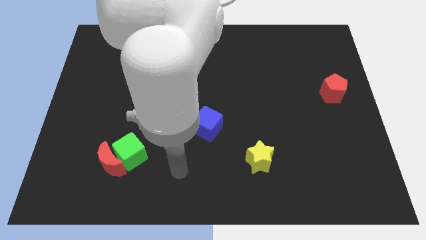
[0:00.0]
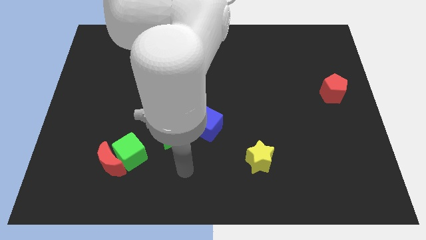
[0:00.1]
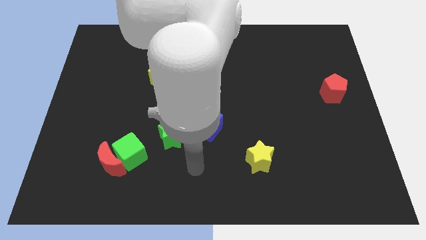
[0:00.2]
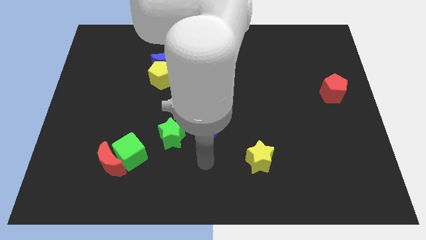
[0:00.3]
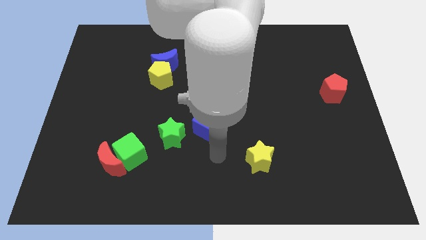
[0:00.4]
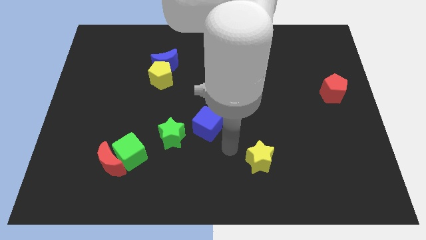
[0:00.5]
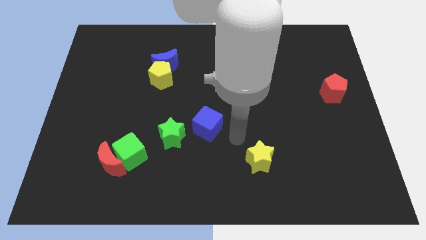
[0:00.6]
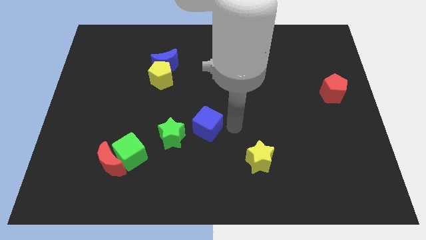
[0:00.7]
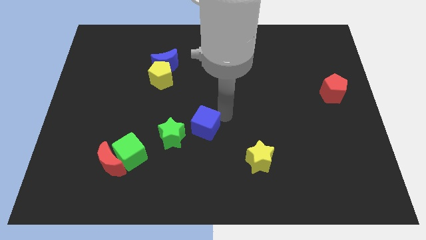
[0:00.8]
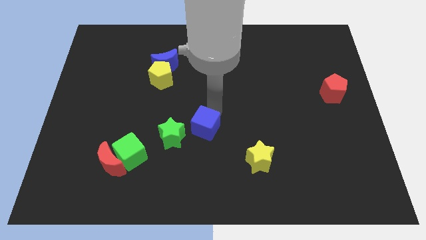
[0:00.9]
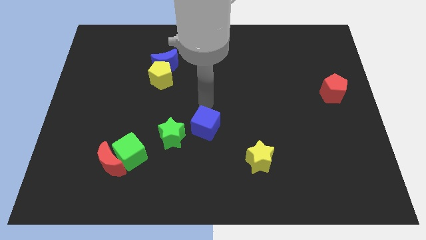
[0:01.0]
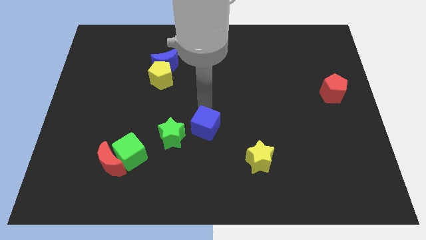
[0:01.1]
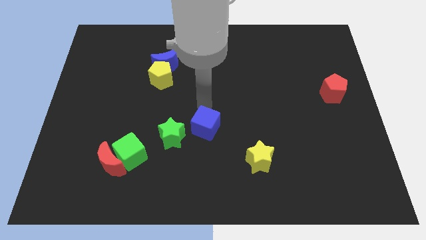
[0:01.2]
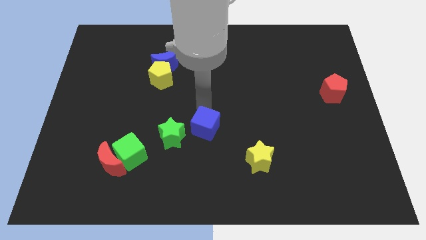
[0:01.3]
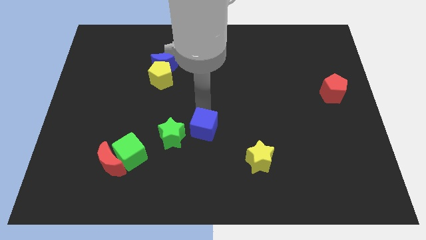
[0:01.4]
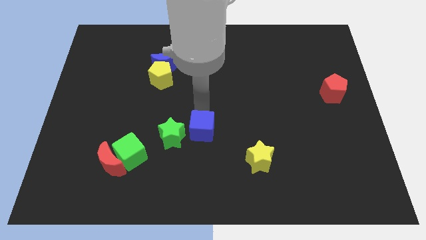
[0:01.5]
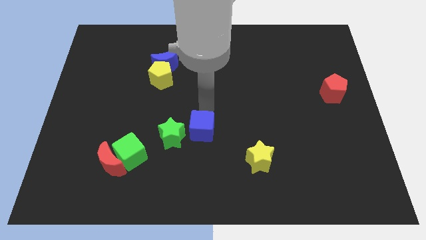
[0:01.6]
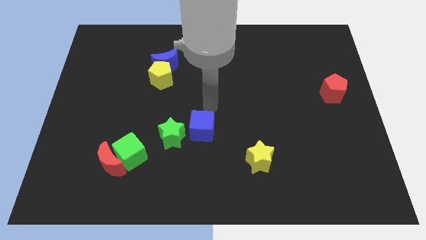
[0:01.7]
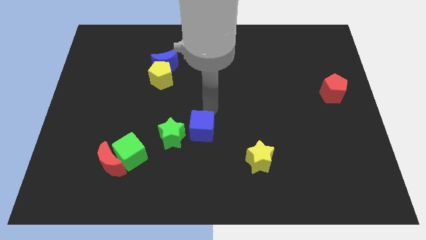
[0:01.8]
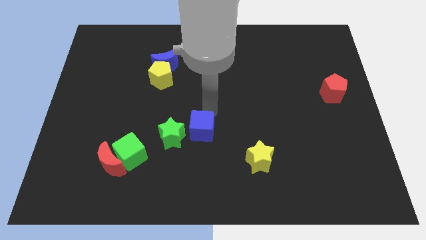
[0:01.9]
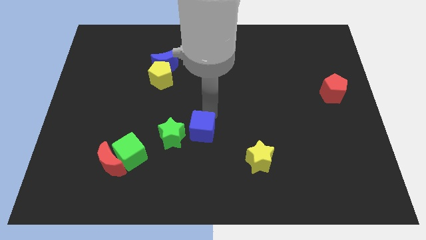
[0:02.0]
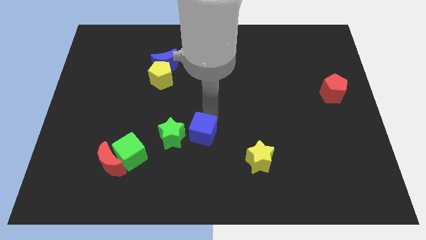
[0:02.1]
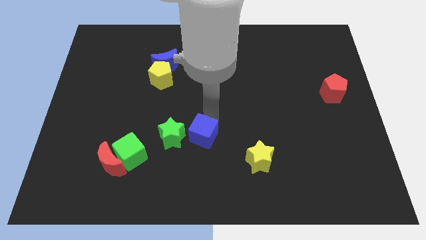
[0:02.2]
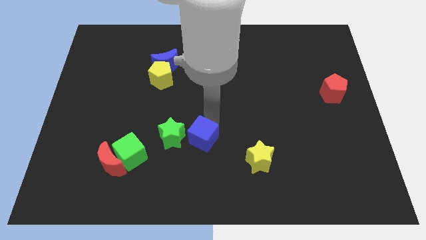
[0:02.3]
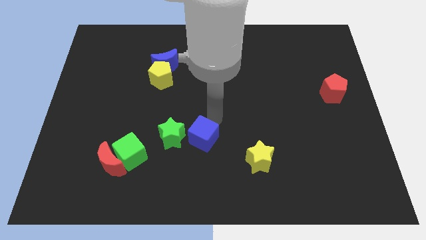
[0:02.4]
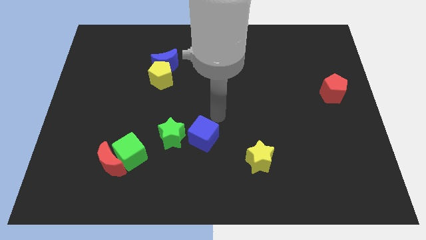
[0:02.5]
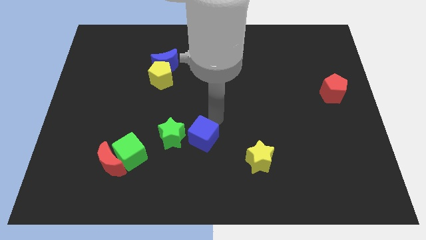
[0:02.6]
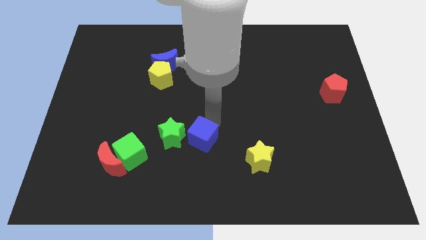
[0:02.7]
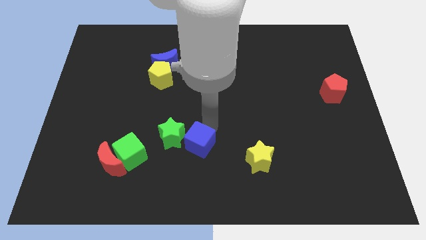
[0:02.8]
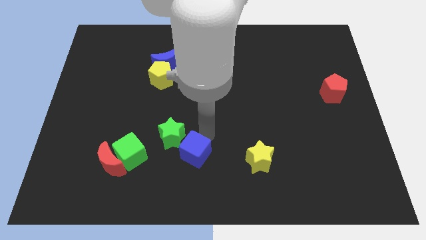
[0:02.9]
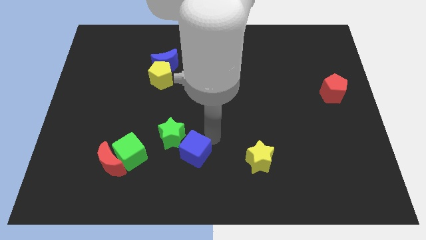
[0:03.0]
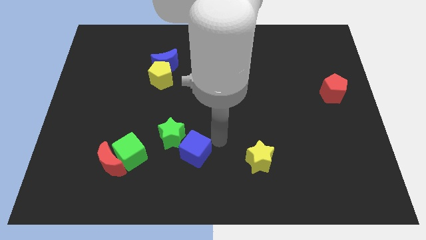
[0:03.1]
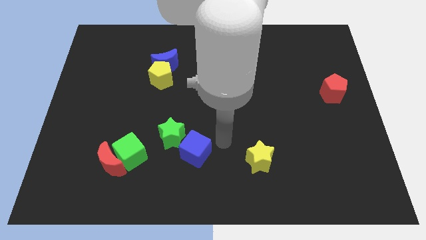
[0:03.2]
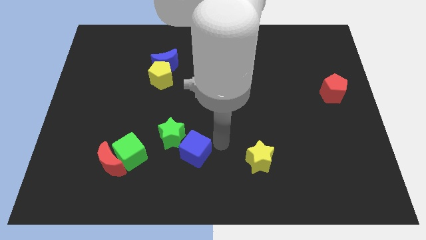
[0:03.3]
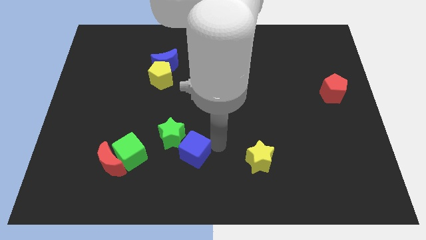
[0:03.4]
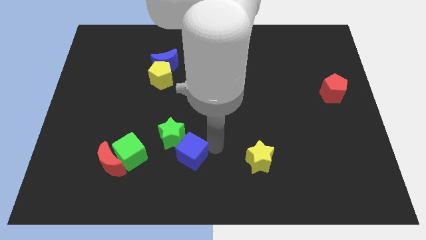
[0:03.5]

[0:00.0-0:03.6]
slightly slide the blue cube diagonally downwards and to the left

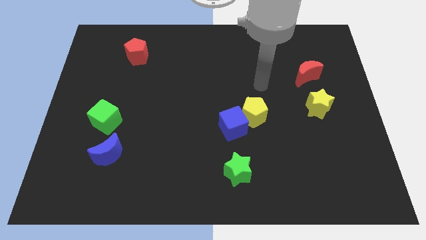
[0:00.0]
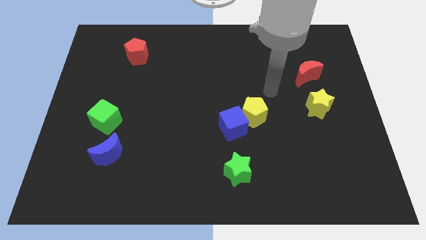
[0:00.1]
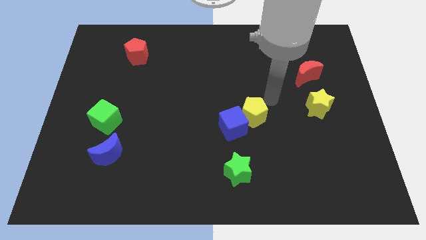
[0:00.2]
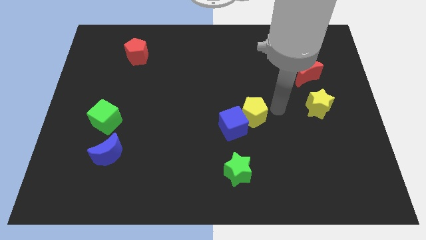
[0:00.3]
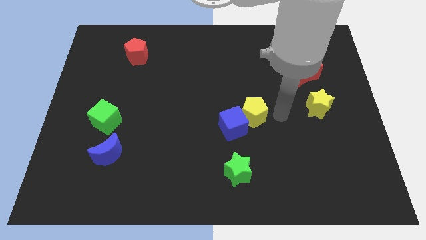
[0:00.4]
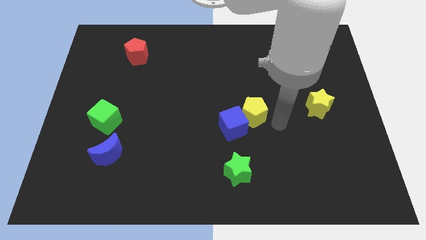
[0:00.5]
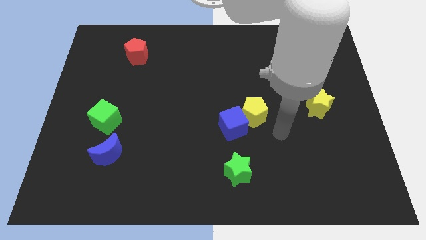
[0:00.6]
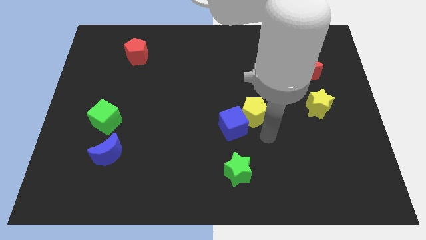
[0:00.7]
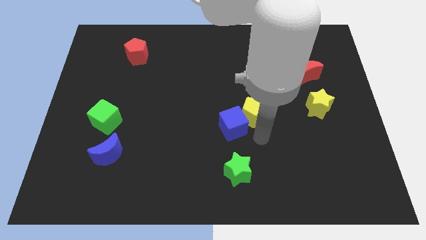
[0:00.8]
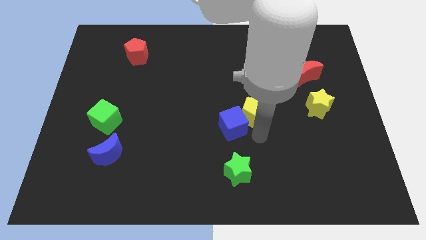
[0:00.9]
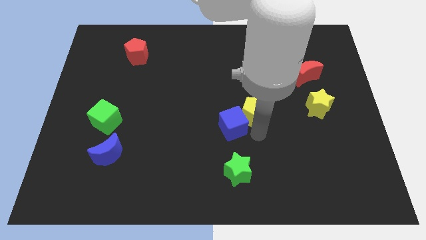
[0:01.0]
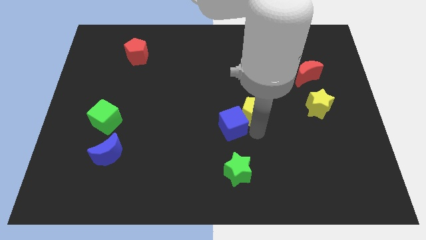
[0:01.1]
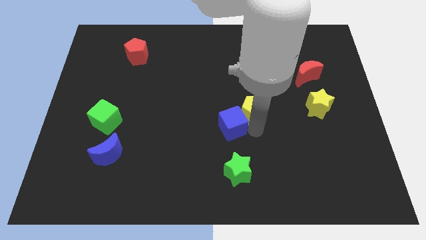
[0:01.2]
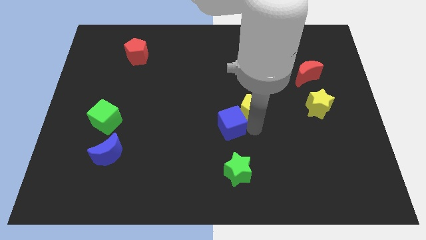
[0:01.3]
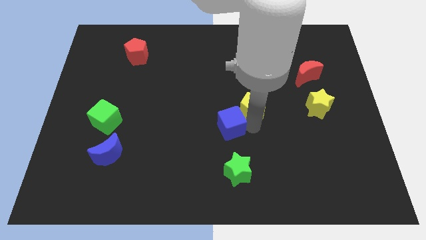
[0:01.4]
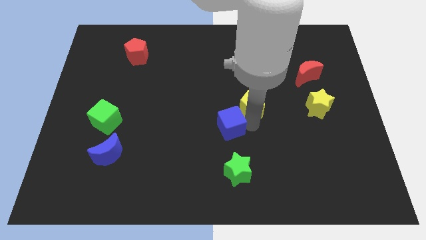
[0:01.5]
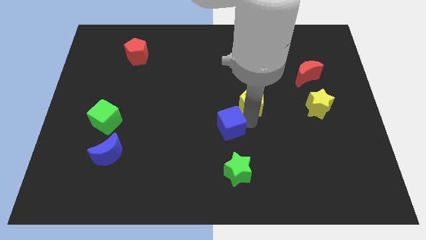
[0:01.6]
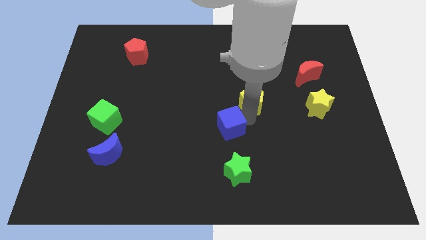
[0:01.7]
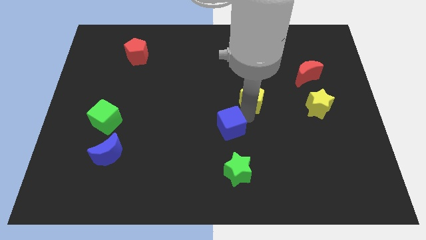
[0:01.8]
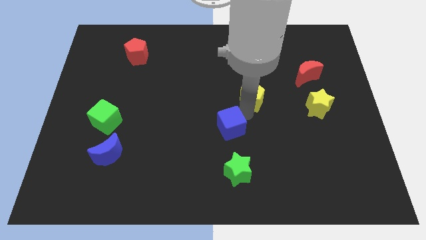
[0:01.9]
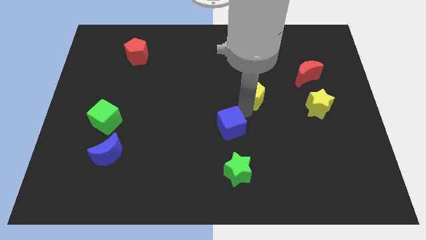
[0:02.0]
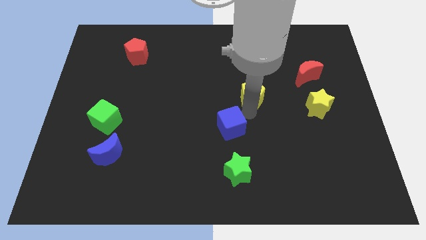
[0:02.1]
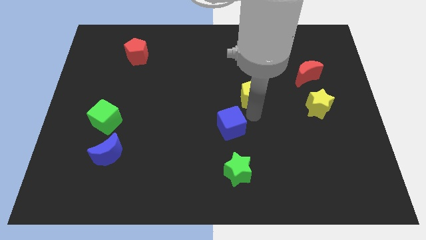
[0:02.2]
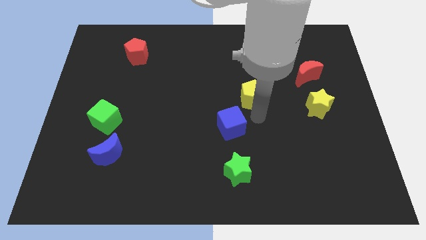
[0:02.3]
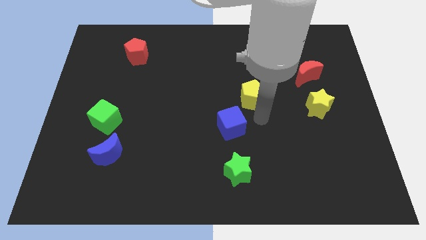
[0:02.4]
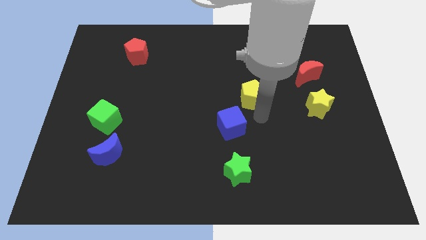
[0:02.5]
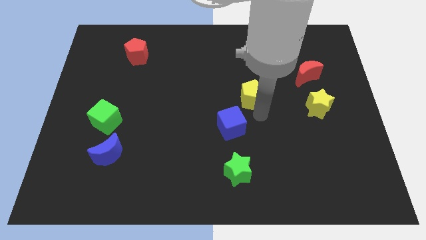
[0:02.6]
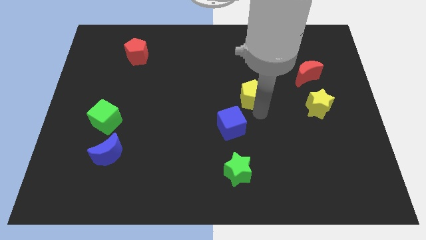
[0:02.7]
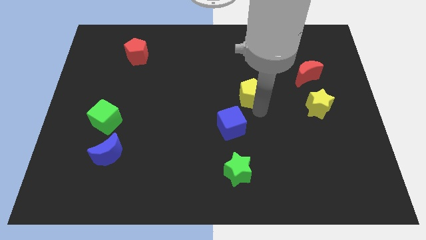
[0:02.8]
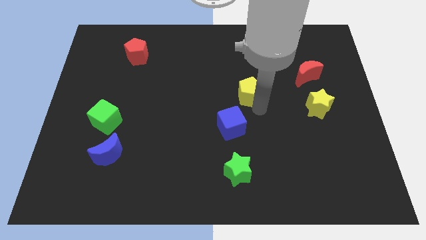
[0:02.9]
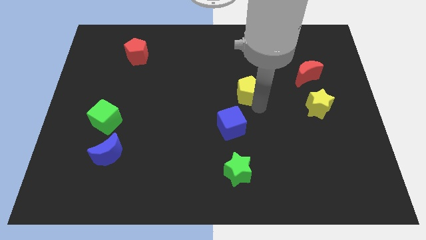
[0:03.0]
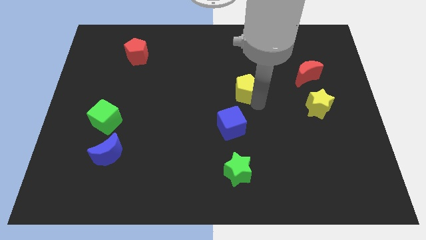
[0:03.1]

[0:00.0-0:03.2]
slightly move the yellow pentagon up

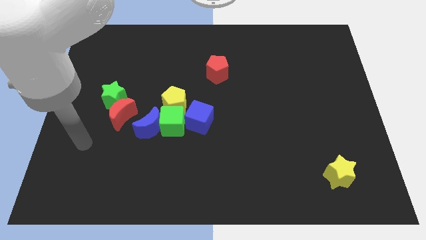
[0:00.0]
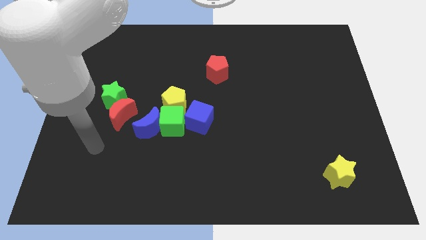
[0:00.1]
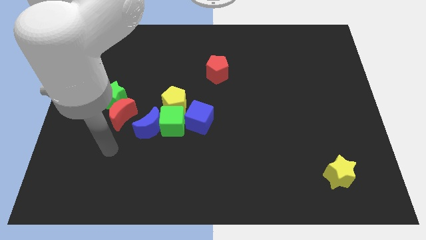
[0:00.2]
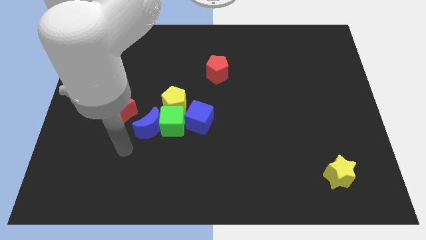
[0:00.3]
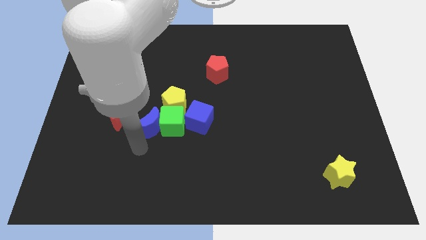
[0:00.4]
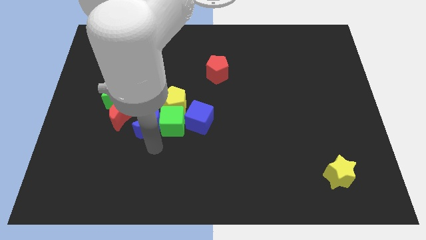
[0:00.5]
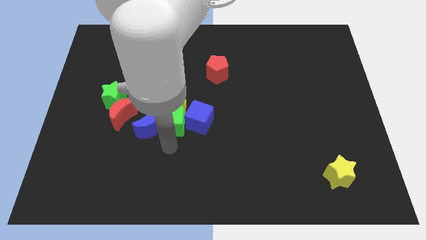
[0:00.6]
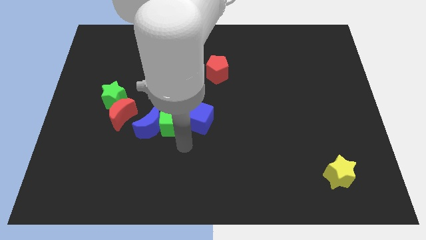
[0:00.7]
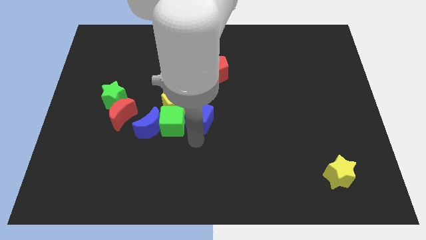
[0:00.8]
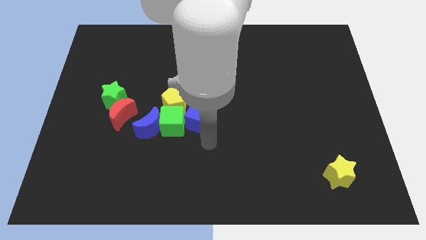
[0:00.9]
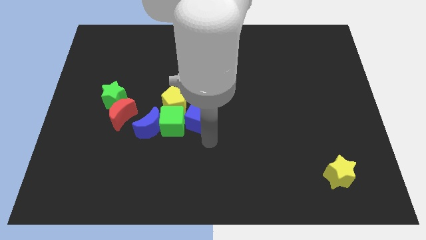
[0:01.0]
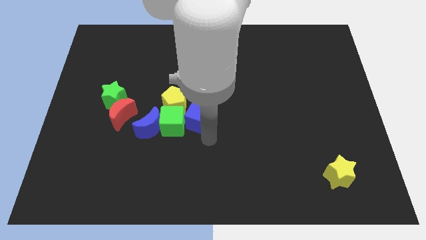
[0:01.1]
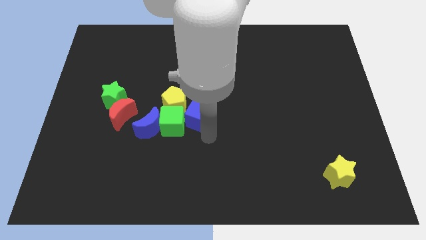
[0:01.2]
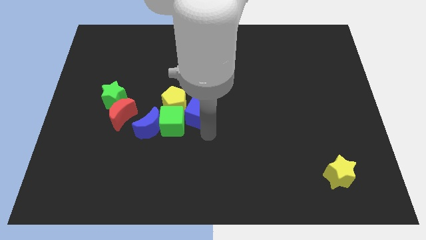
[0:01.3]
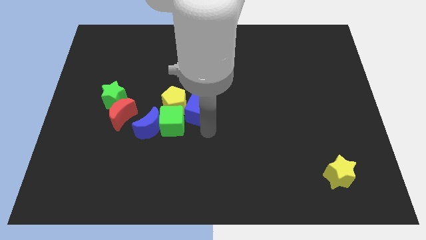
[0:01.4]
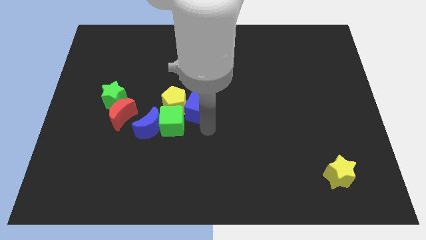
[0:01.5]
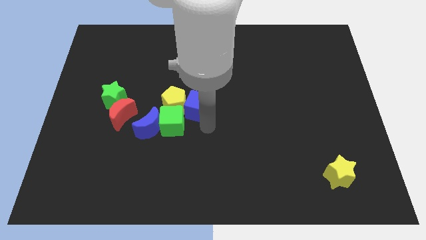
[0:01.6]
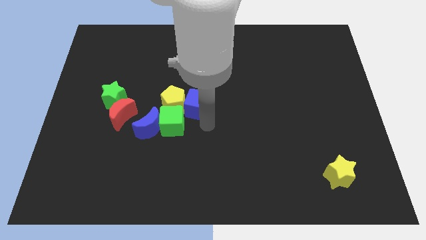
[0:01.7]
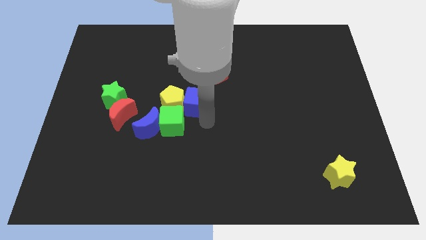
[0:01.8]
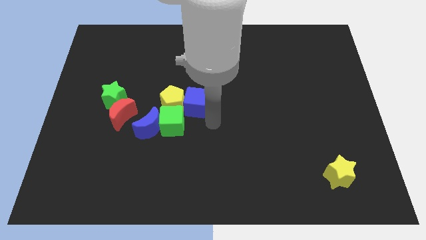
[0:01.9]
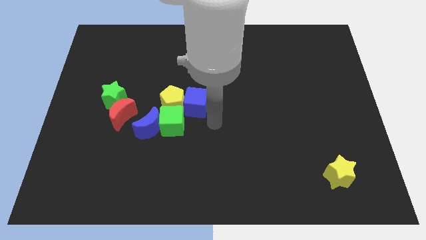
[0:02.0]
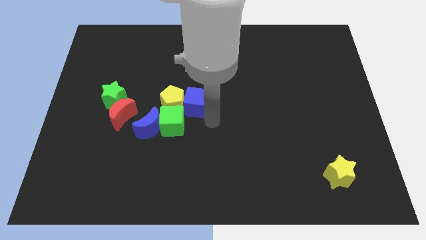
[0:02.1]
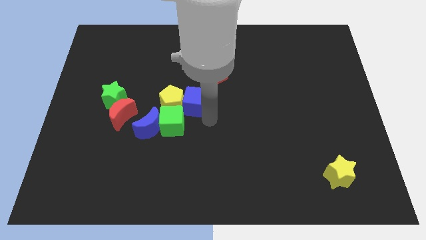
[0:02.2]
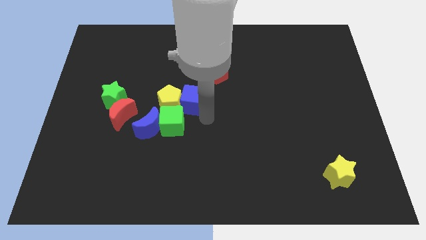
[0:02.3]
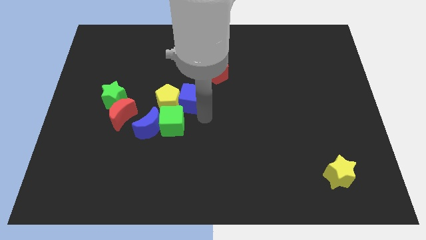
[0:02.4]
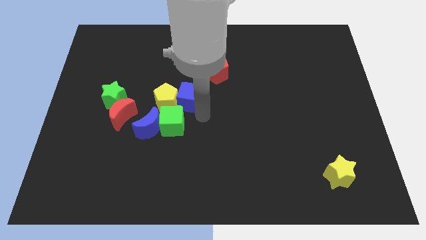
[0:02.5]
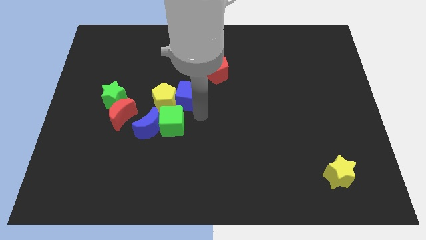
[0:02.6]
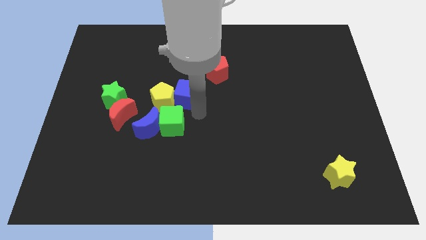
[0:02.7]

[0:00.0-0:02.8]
push the blue cube diagonally up and left a bit
